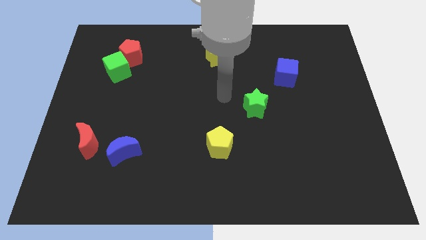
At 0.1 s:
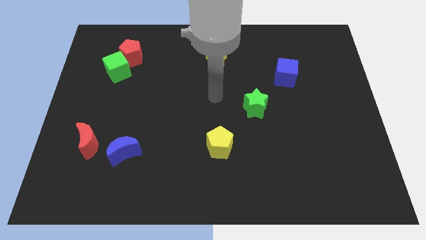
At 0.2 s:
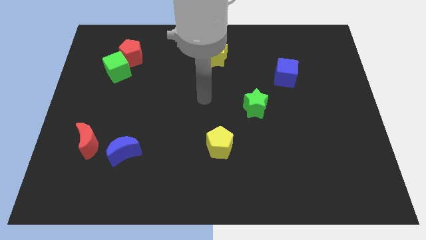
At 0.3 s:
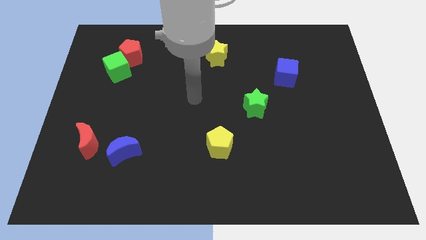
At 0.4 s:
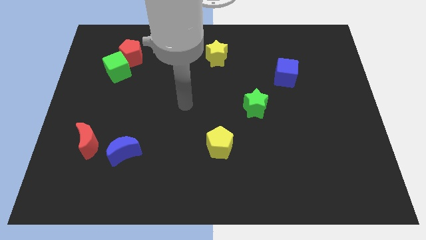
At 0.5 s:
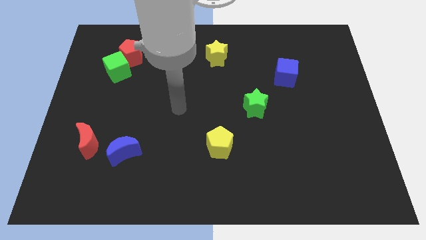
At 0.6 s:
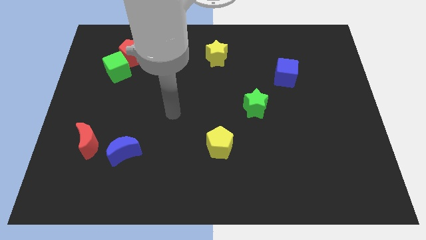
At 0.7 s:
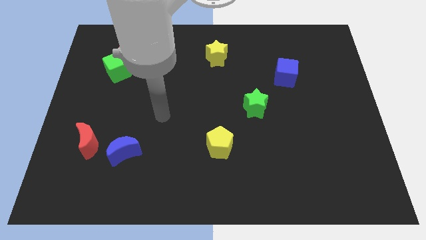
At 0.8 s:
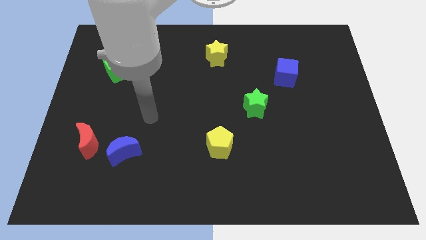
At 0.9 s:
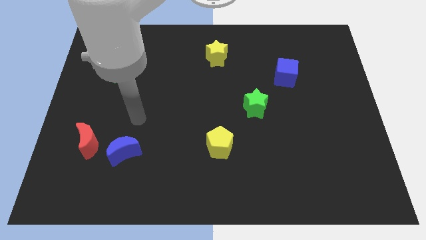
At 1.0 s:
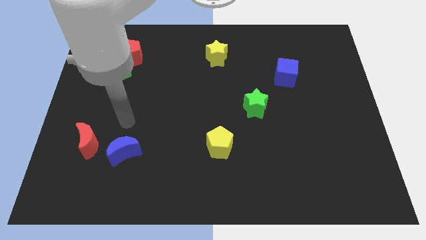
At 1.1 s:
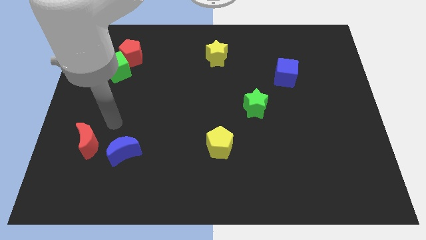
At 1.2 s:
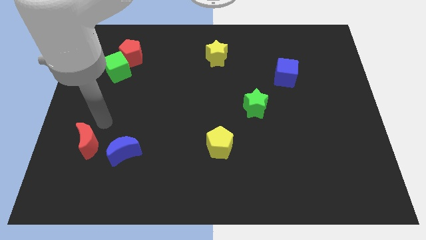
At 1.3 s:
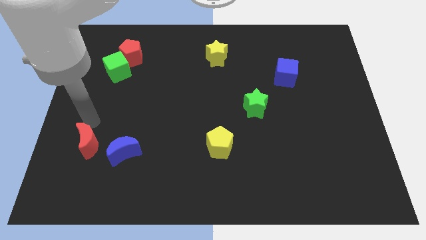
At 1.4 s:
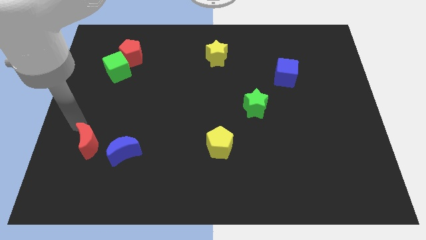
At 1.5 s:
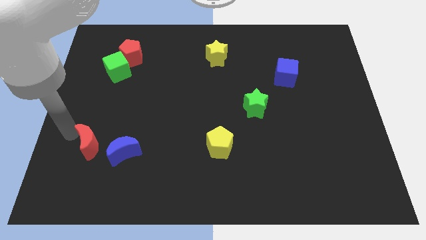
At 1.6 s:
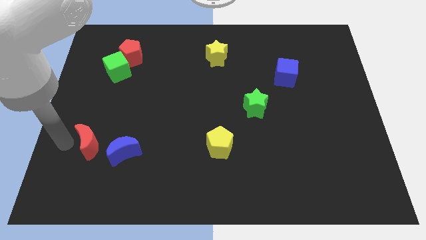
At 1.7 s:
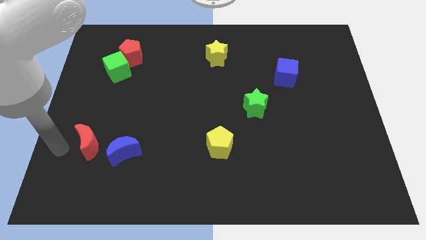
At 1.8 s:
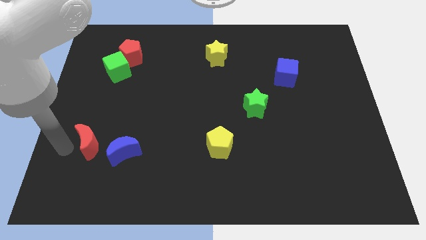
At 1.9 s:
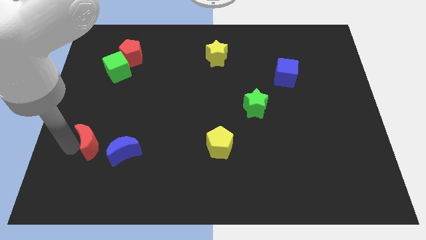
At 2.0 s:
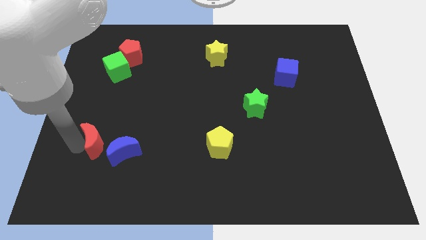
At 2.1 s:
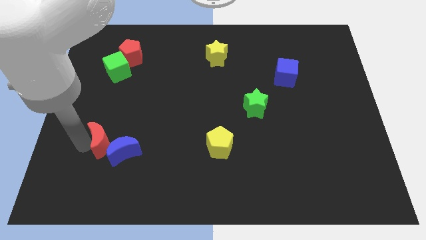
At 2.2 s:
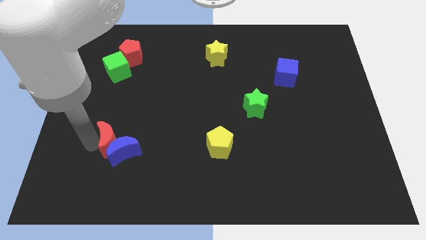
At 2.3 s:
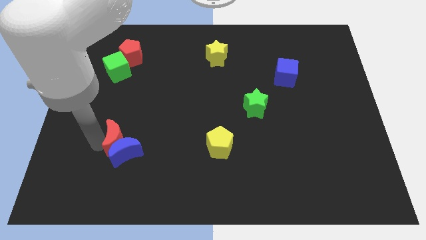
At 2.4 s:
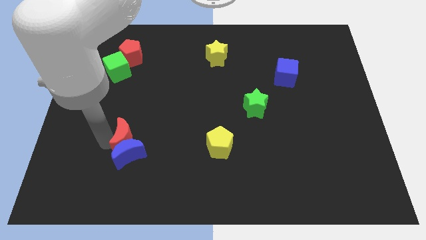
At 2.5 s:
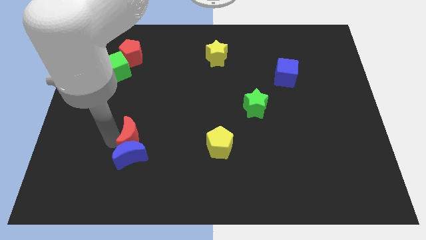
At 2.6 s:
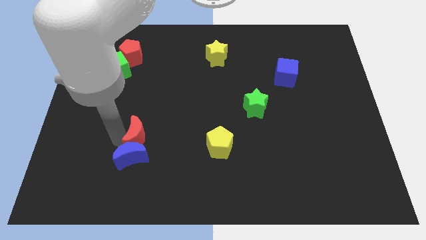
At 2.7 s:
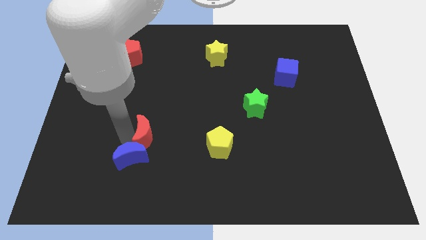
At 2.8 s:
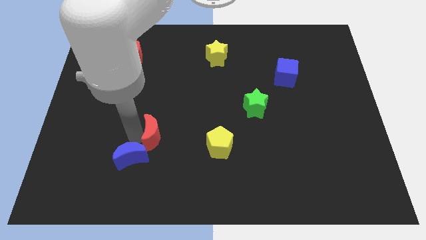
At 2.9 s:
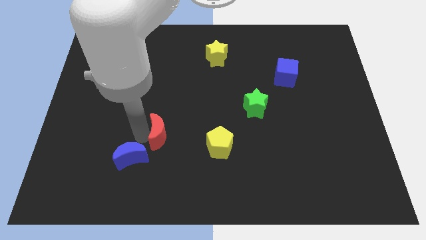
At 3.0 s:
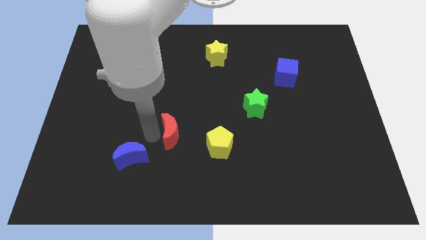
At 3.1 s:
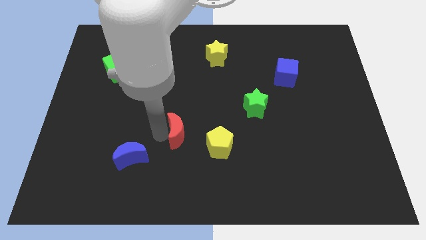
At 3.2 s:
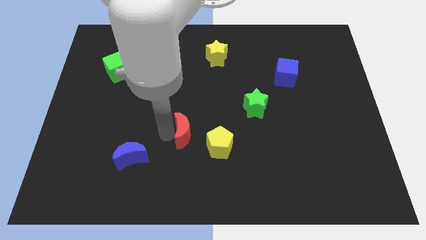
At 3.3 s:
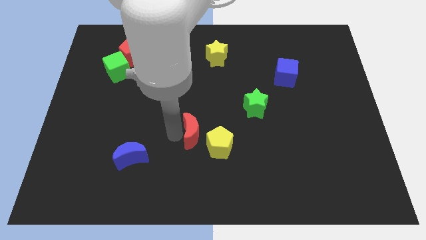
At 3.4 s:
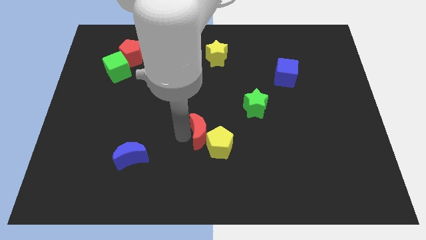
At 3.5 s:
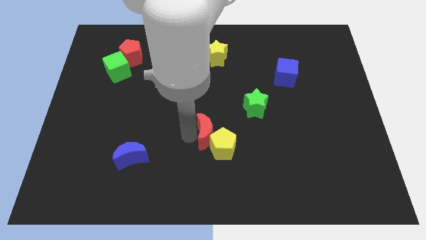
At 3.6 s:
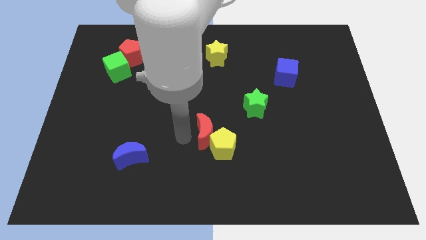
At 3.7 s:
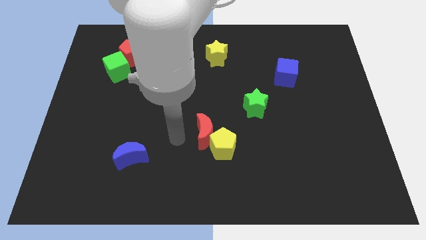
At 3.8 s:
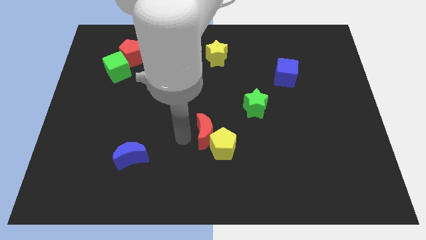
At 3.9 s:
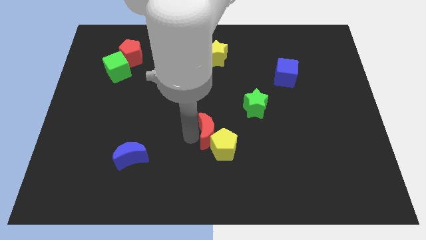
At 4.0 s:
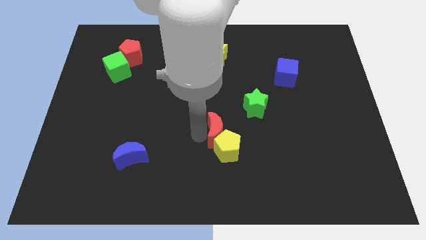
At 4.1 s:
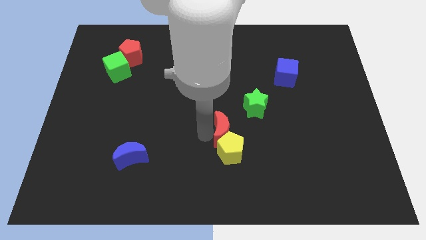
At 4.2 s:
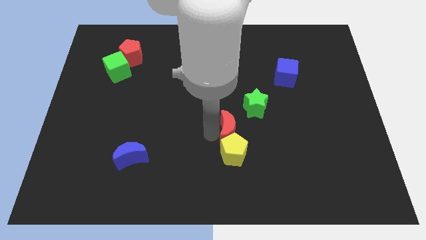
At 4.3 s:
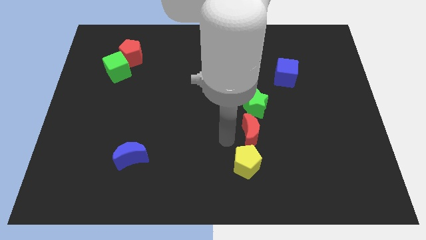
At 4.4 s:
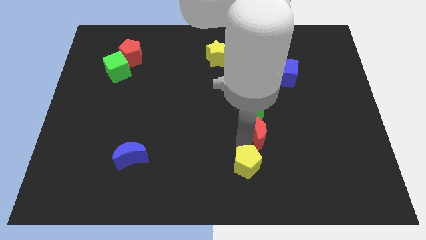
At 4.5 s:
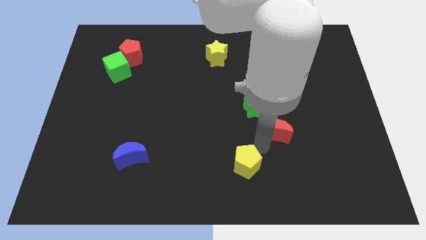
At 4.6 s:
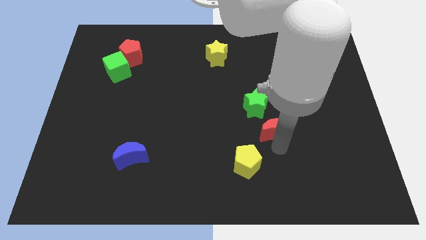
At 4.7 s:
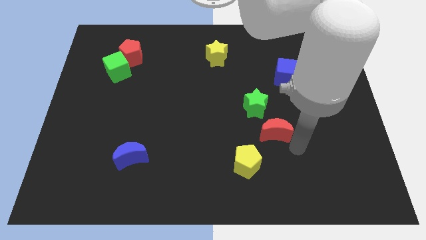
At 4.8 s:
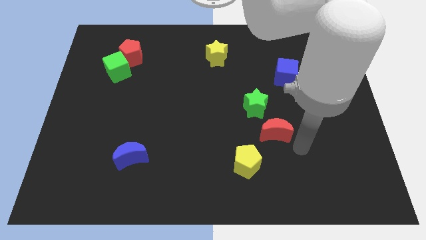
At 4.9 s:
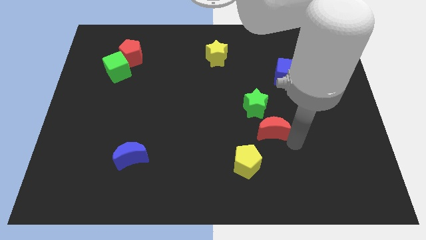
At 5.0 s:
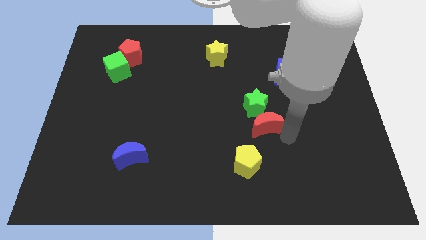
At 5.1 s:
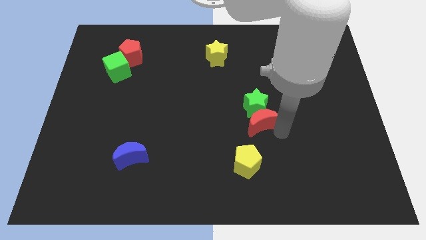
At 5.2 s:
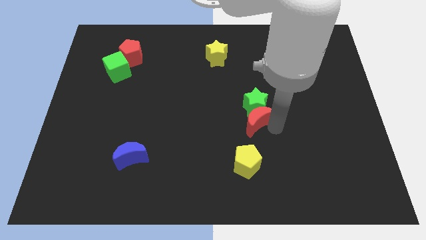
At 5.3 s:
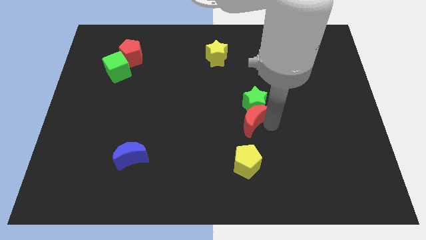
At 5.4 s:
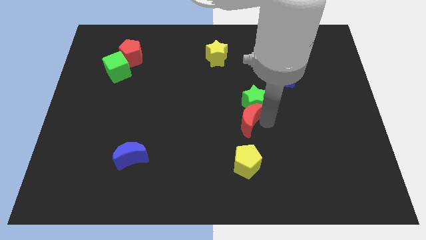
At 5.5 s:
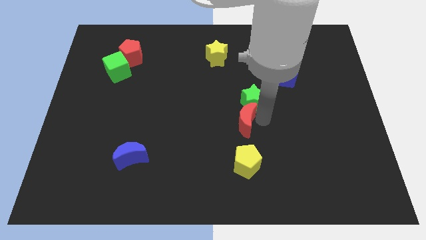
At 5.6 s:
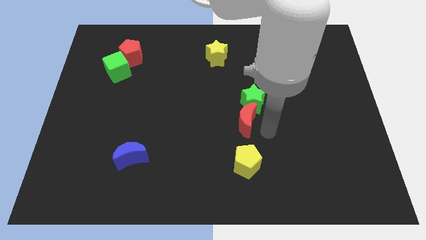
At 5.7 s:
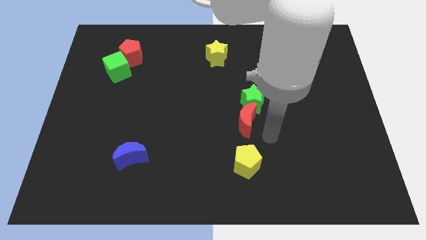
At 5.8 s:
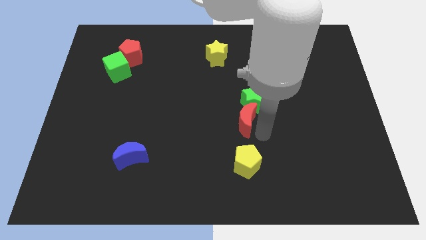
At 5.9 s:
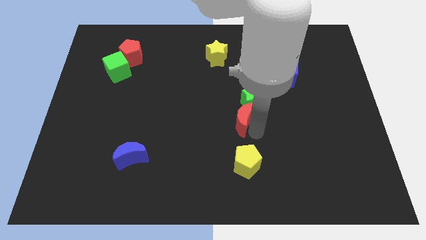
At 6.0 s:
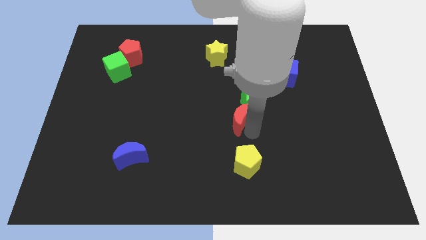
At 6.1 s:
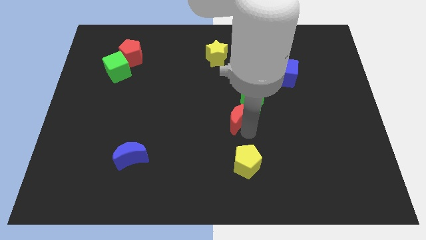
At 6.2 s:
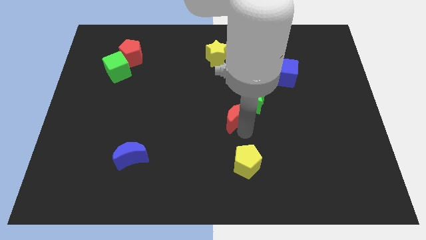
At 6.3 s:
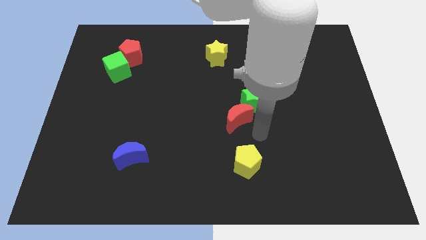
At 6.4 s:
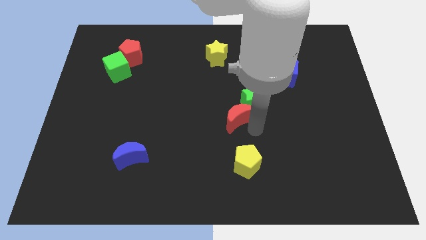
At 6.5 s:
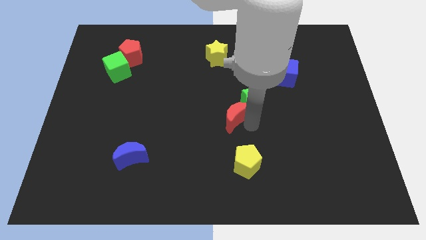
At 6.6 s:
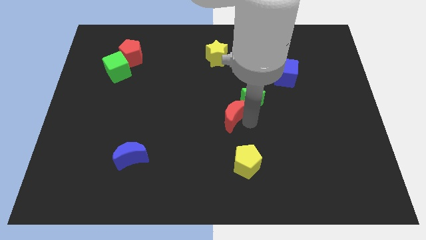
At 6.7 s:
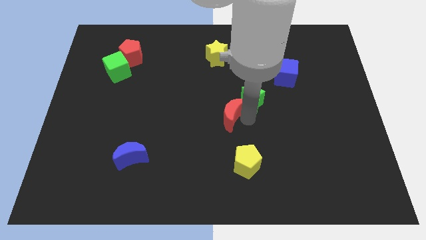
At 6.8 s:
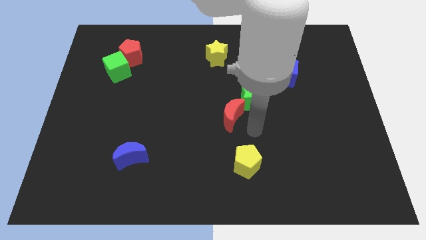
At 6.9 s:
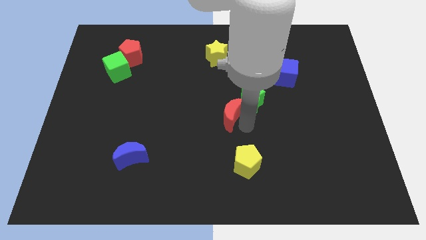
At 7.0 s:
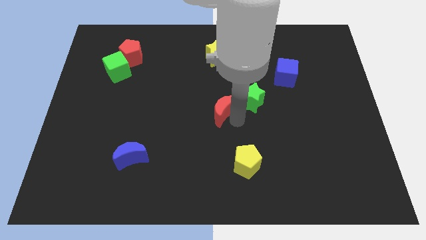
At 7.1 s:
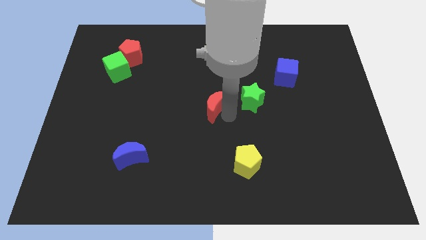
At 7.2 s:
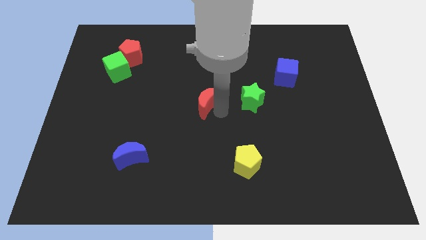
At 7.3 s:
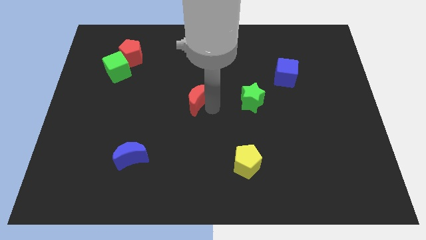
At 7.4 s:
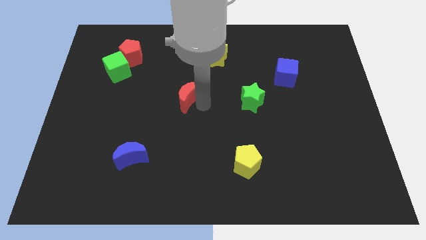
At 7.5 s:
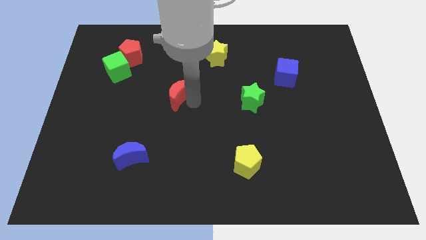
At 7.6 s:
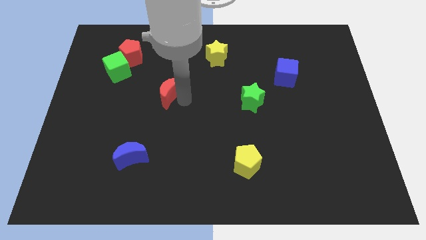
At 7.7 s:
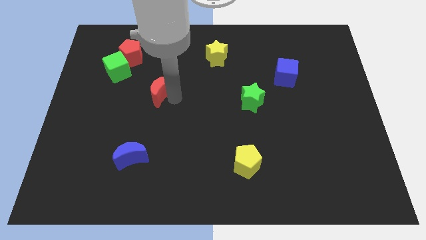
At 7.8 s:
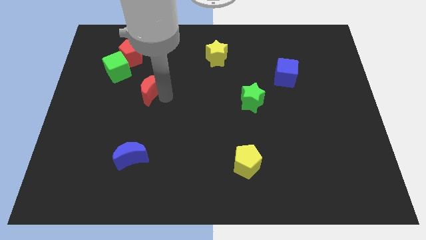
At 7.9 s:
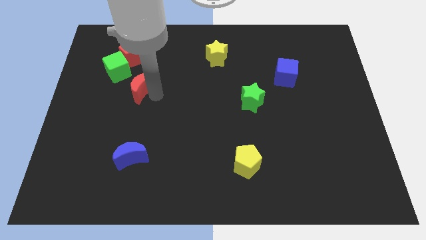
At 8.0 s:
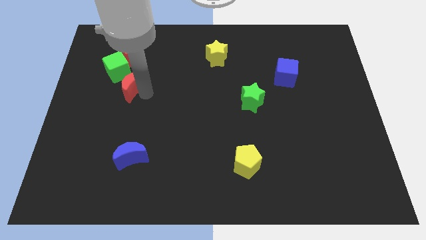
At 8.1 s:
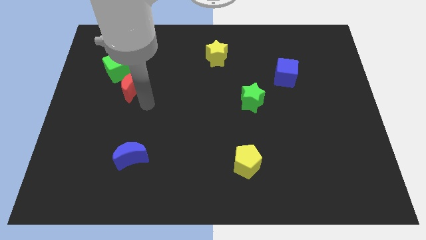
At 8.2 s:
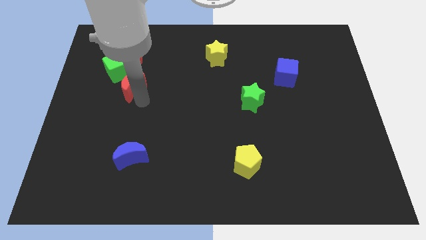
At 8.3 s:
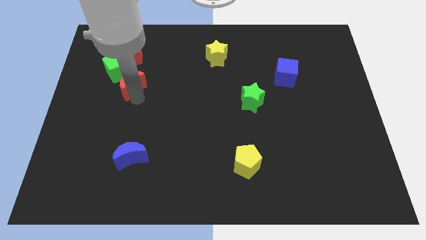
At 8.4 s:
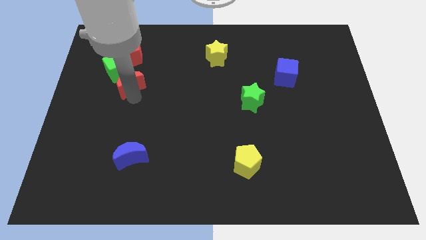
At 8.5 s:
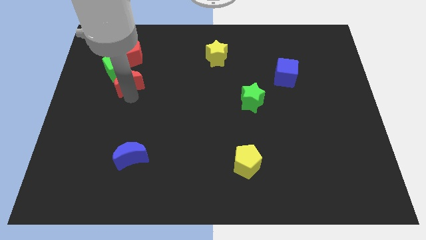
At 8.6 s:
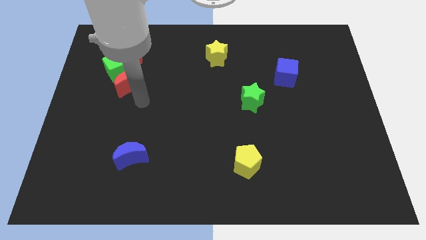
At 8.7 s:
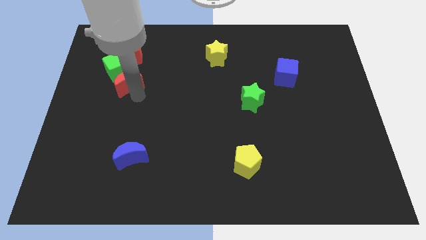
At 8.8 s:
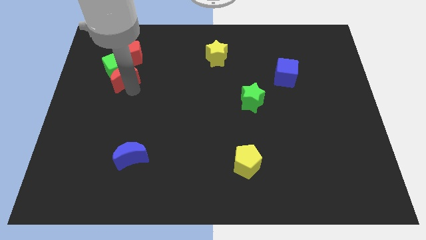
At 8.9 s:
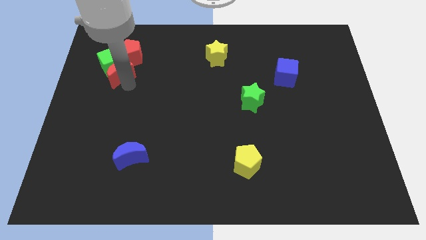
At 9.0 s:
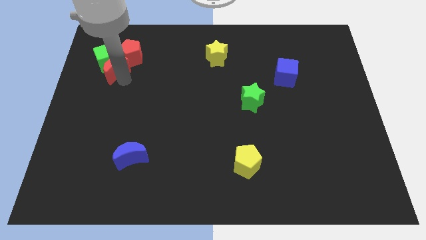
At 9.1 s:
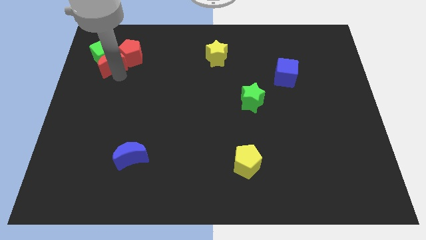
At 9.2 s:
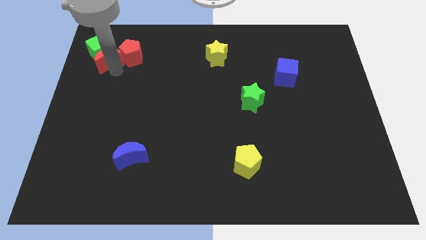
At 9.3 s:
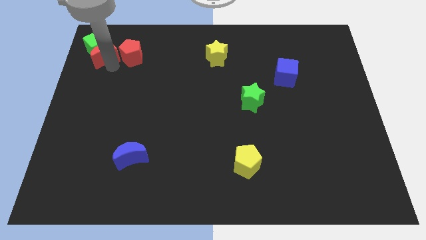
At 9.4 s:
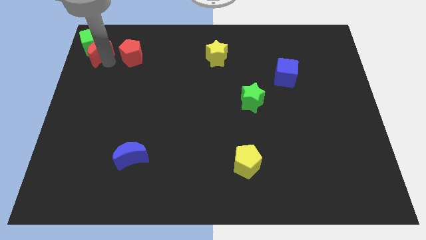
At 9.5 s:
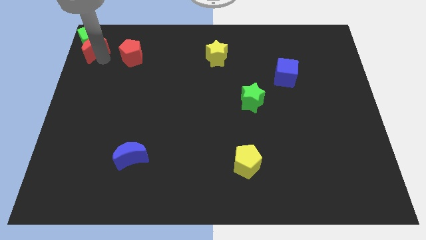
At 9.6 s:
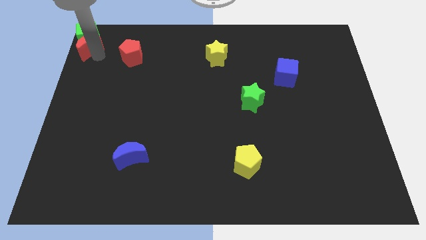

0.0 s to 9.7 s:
move the red moon to the upper left corner
